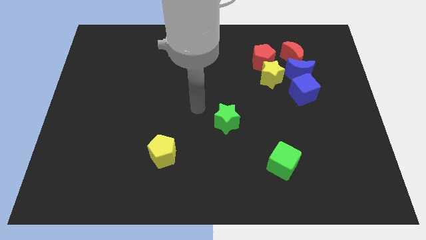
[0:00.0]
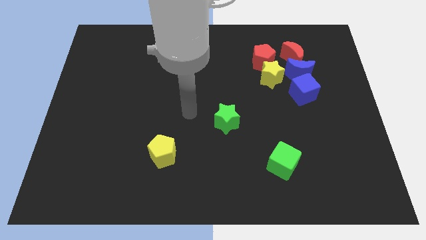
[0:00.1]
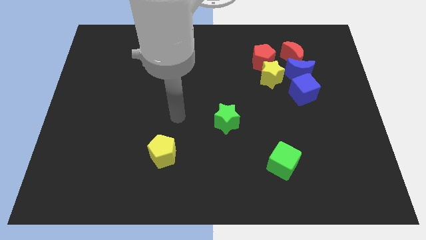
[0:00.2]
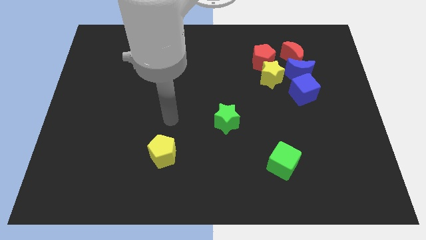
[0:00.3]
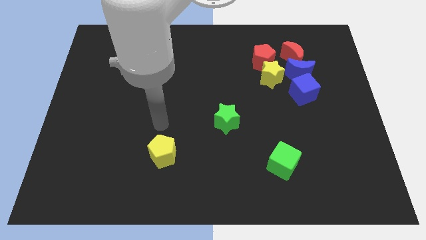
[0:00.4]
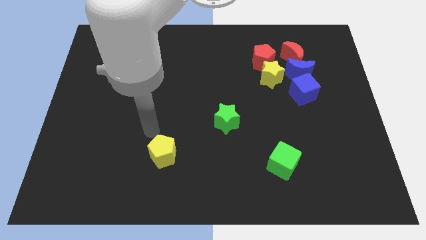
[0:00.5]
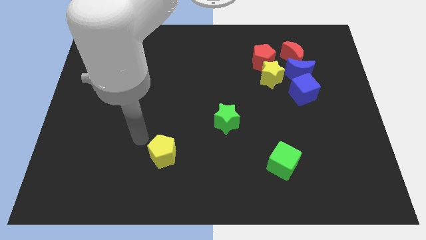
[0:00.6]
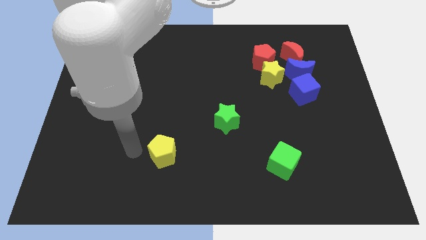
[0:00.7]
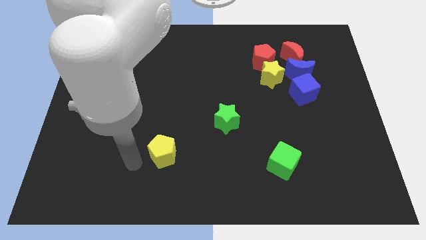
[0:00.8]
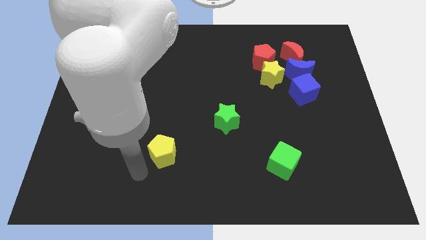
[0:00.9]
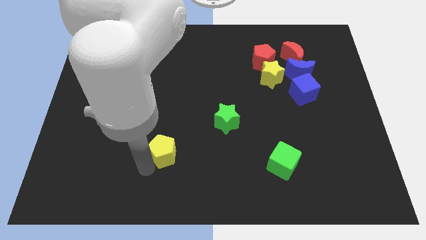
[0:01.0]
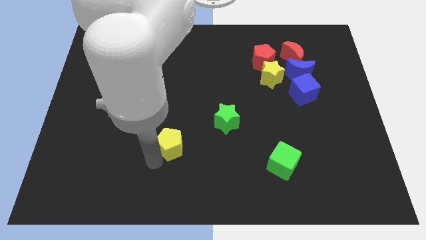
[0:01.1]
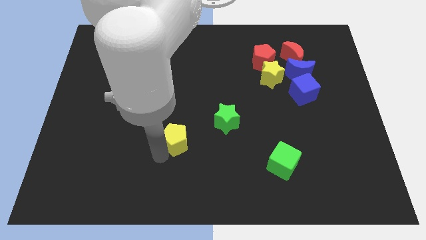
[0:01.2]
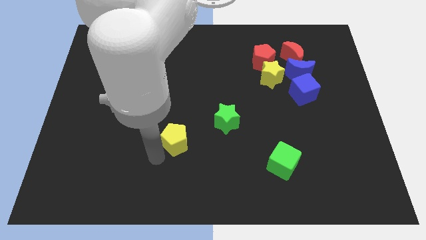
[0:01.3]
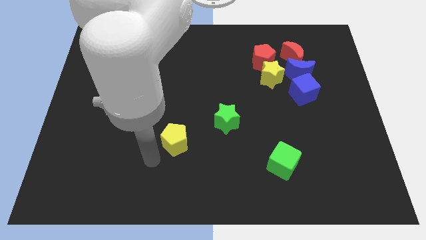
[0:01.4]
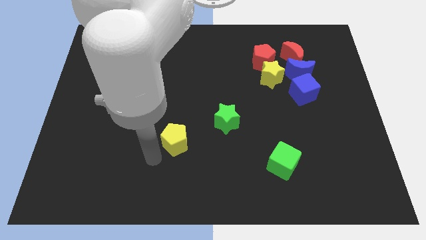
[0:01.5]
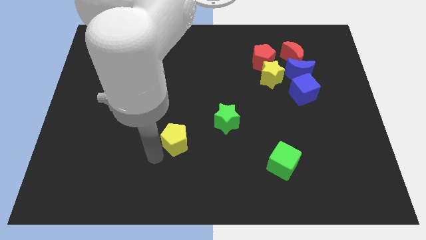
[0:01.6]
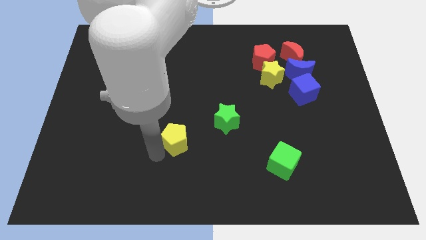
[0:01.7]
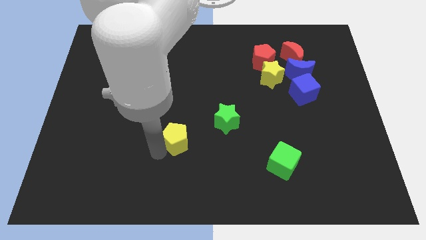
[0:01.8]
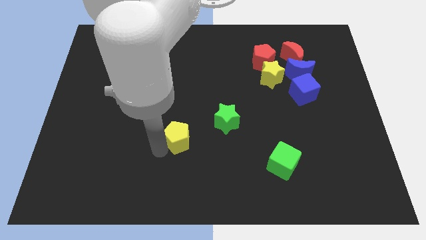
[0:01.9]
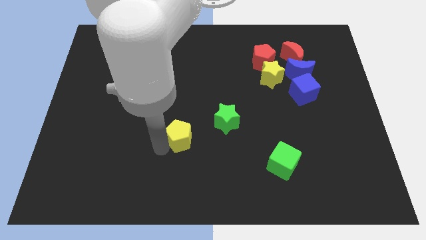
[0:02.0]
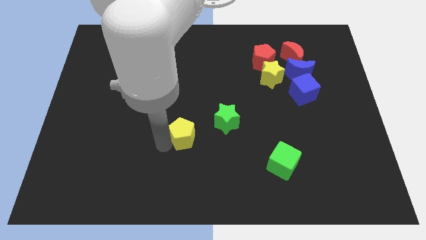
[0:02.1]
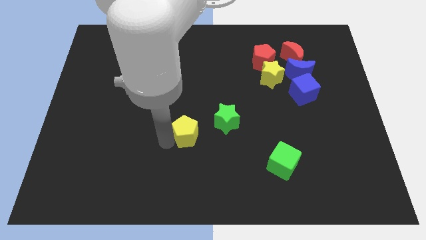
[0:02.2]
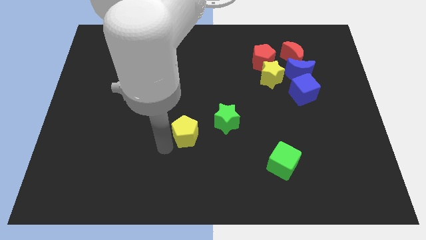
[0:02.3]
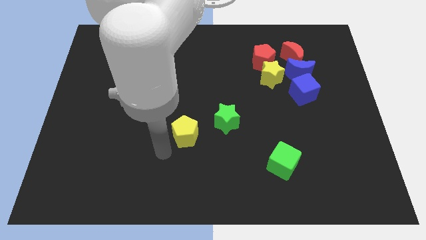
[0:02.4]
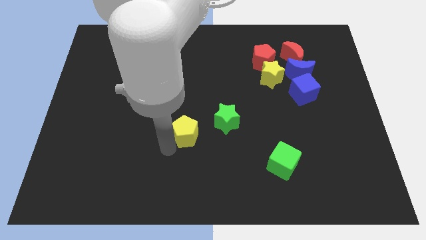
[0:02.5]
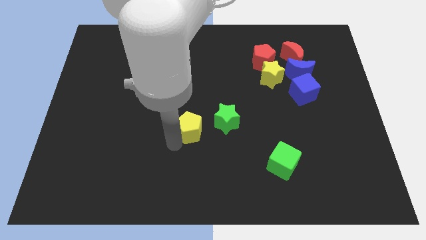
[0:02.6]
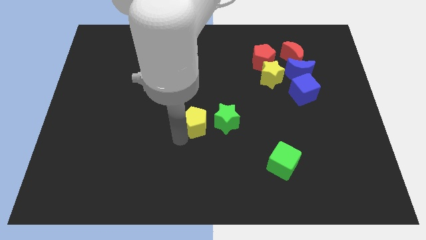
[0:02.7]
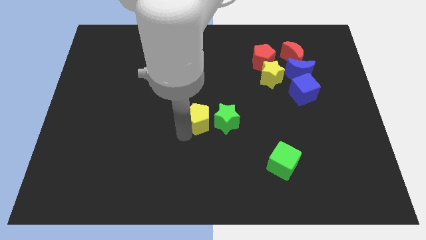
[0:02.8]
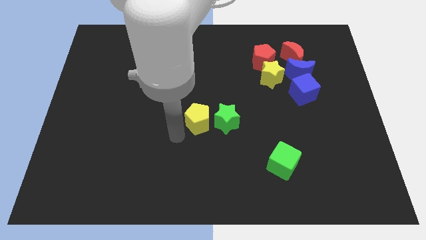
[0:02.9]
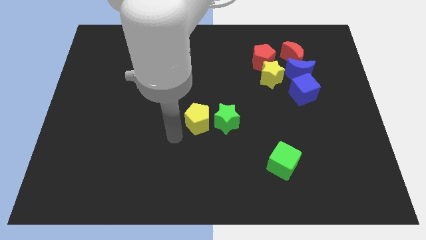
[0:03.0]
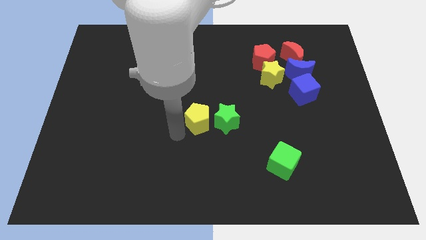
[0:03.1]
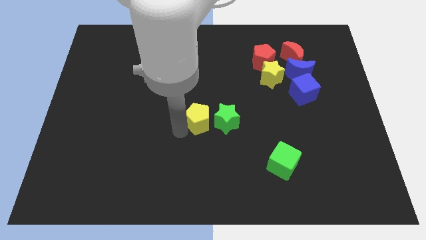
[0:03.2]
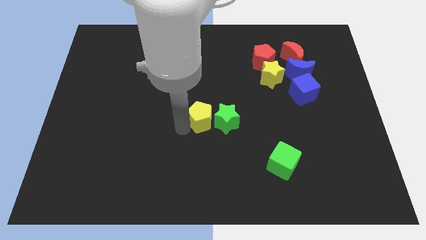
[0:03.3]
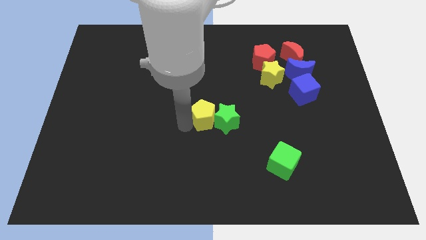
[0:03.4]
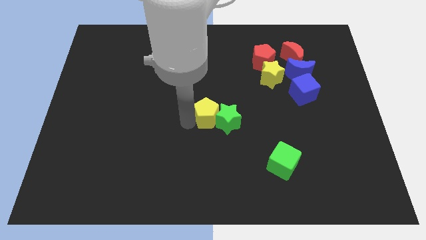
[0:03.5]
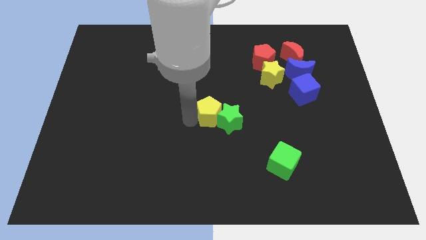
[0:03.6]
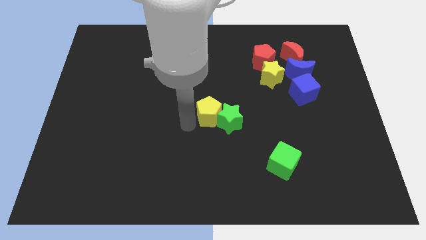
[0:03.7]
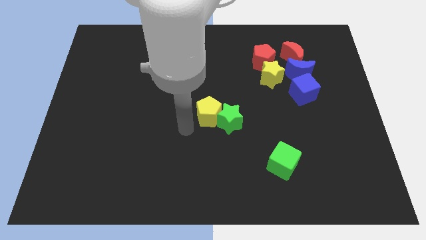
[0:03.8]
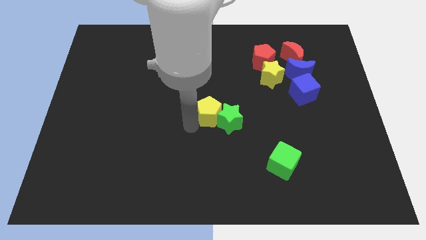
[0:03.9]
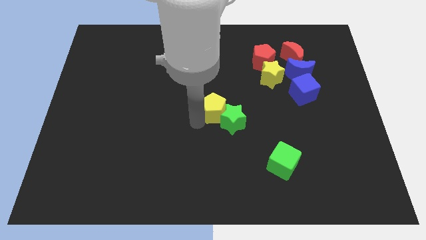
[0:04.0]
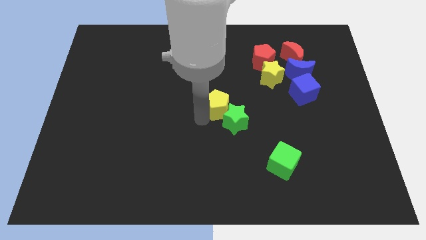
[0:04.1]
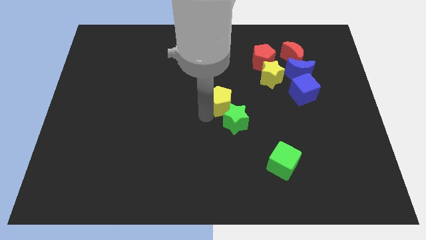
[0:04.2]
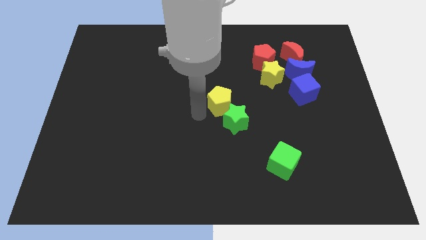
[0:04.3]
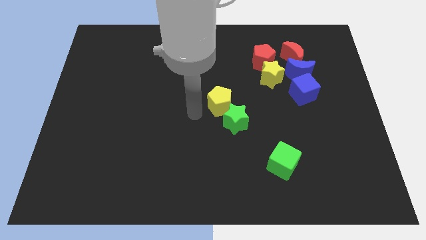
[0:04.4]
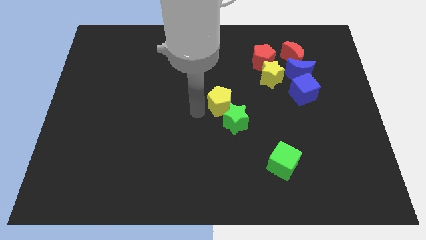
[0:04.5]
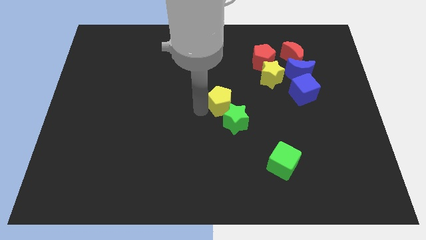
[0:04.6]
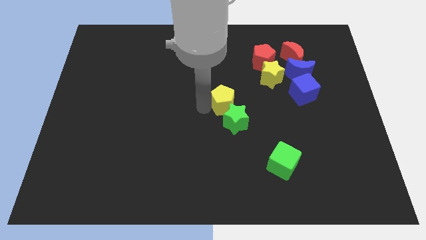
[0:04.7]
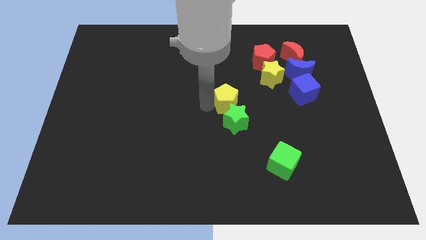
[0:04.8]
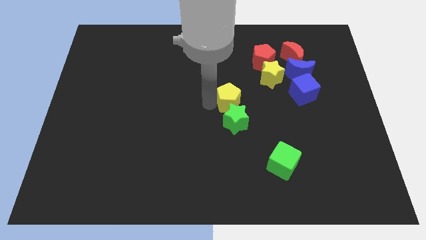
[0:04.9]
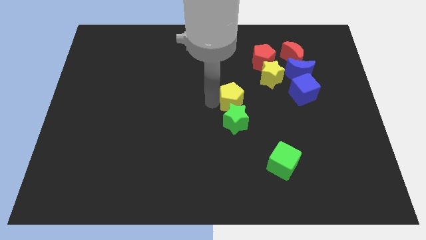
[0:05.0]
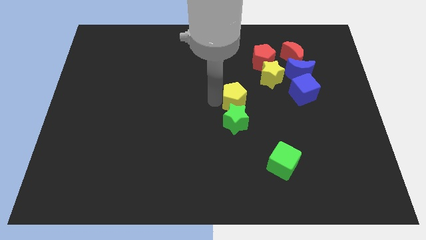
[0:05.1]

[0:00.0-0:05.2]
push the yellow pentagon diagonally down and to the left of the yellow star

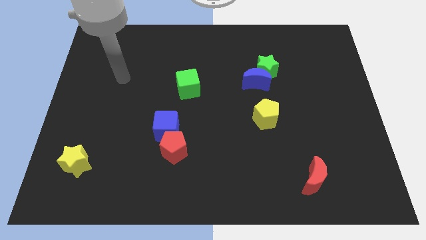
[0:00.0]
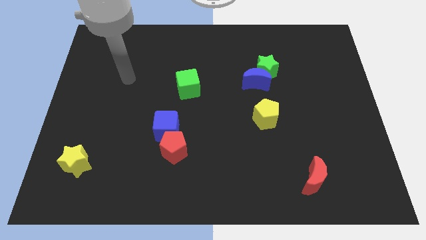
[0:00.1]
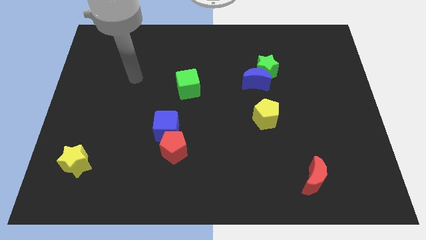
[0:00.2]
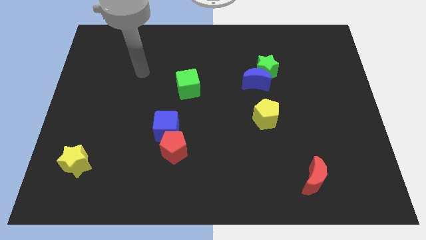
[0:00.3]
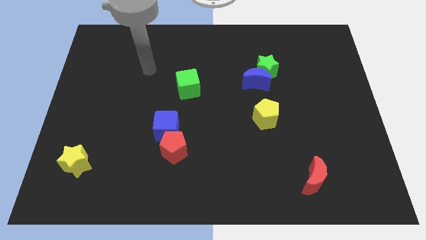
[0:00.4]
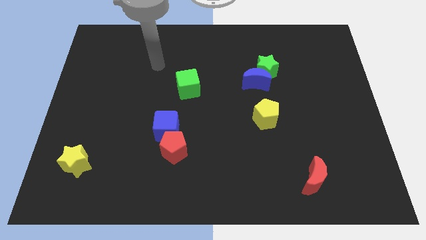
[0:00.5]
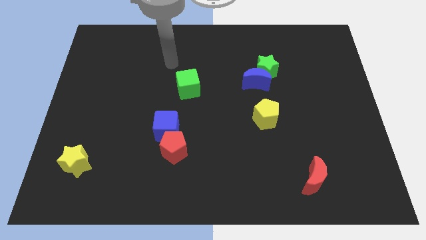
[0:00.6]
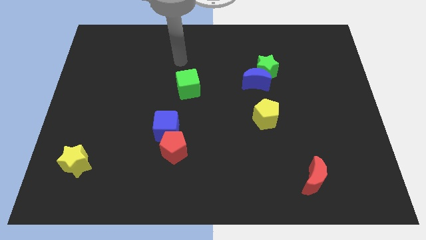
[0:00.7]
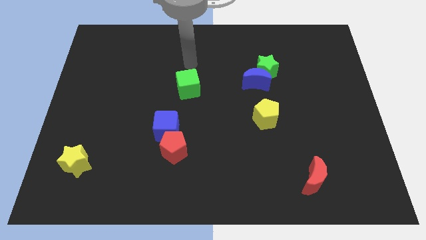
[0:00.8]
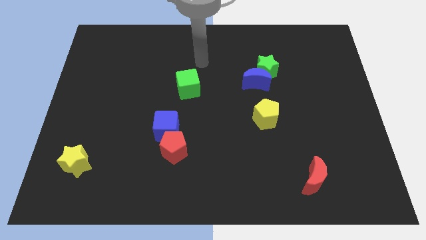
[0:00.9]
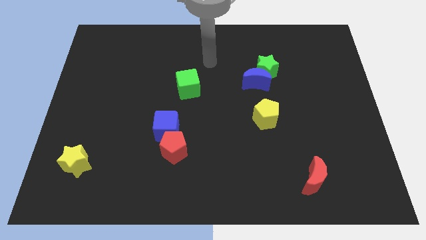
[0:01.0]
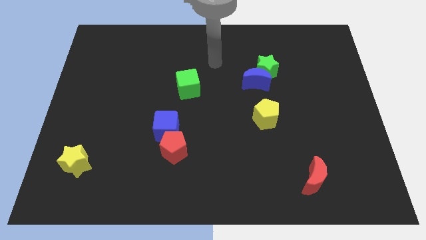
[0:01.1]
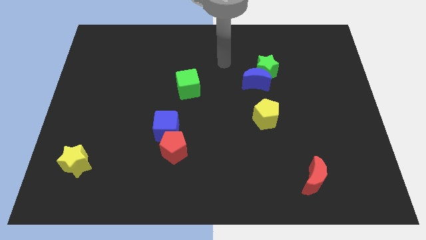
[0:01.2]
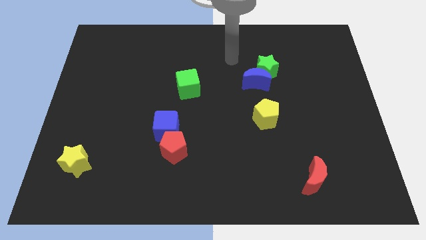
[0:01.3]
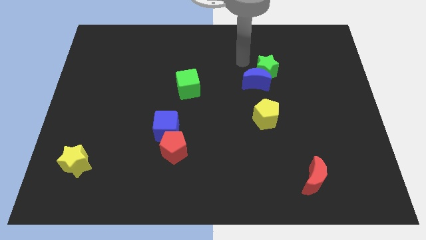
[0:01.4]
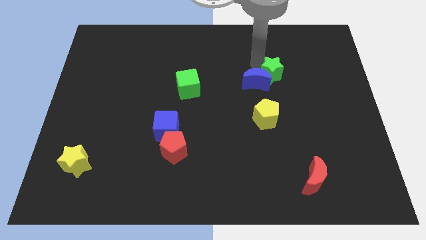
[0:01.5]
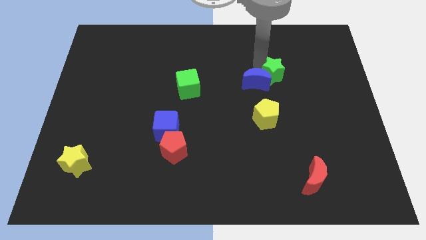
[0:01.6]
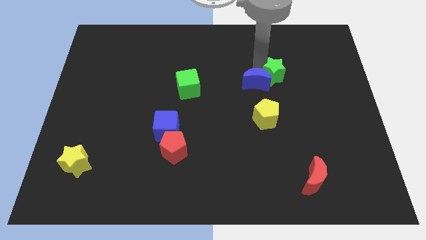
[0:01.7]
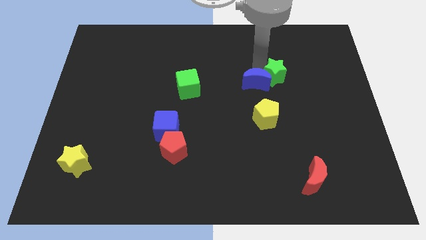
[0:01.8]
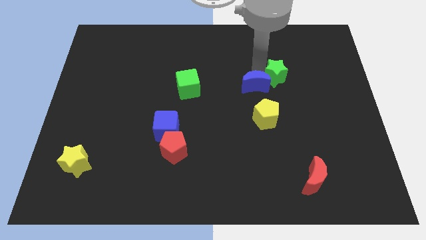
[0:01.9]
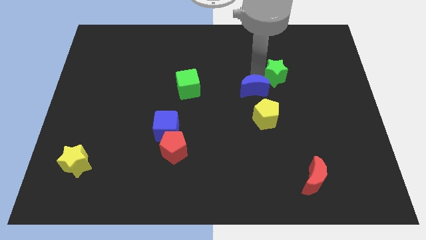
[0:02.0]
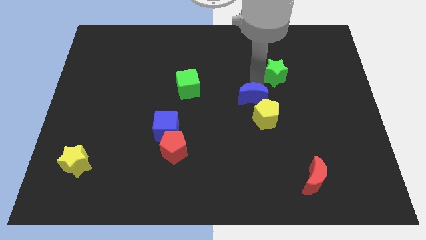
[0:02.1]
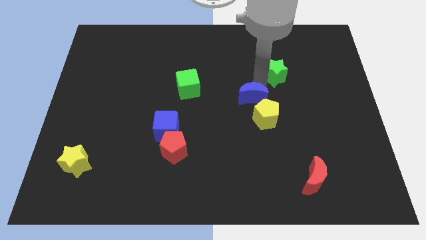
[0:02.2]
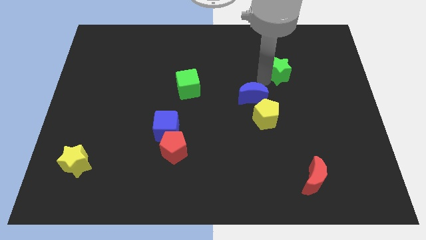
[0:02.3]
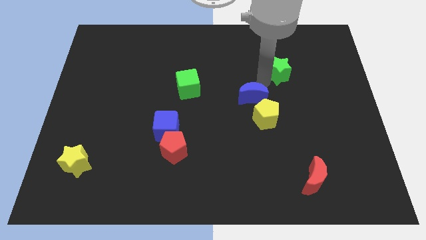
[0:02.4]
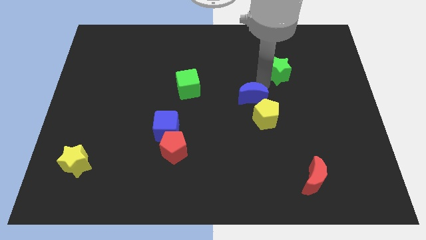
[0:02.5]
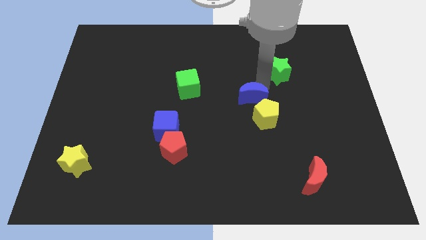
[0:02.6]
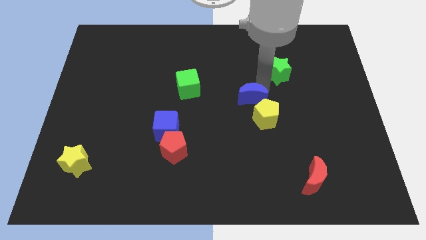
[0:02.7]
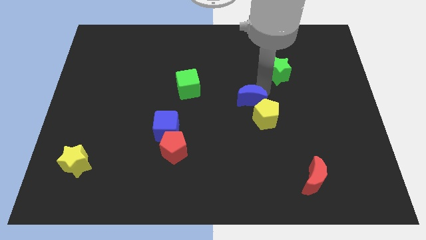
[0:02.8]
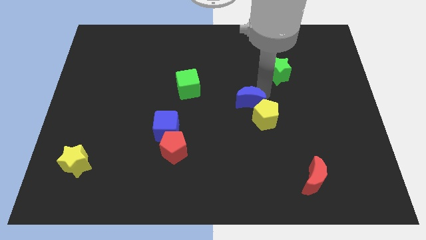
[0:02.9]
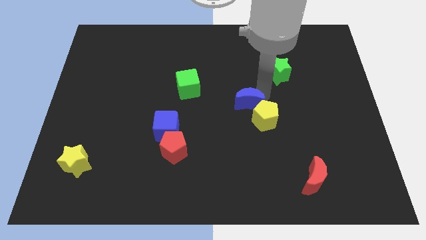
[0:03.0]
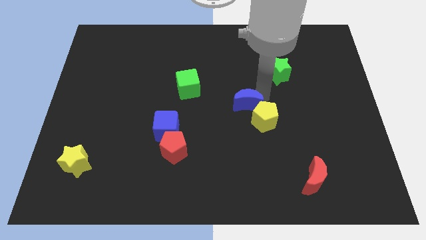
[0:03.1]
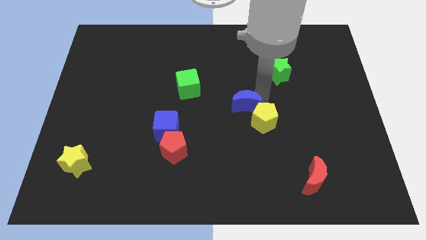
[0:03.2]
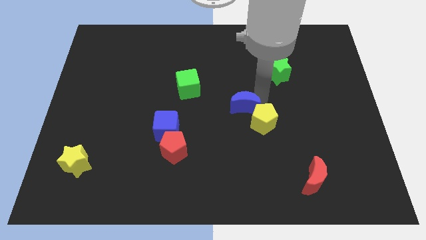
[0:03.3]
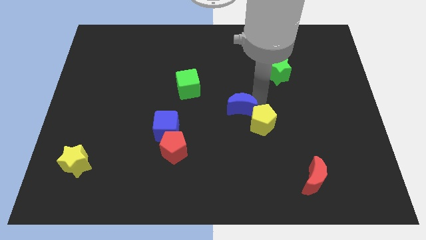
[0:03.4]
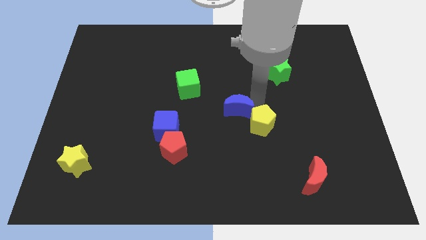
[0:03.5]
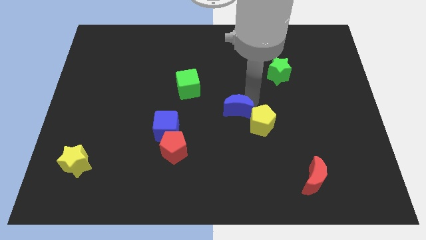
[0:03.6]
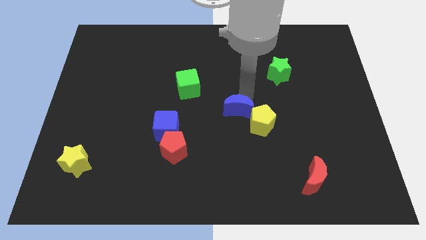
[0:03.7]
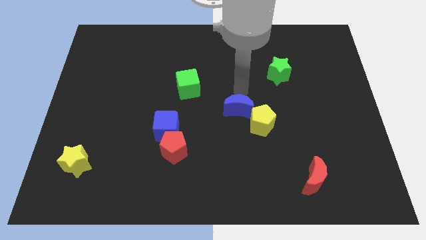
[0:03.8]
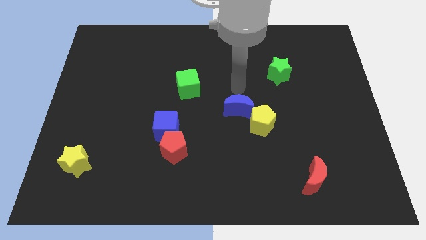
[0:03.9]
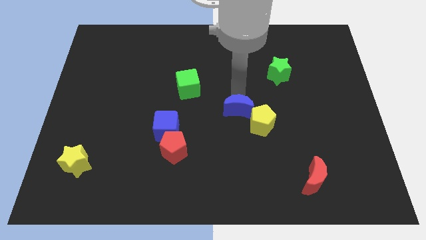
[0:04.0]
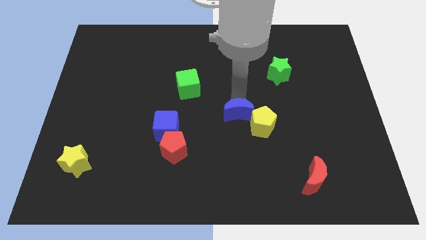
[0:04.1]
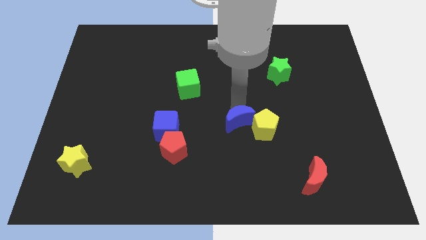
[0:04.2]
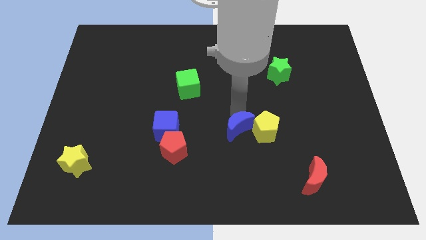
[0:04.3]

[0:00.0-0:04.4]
push the blue moon diagonally down and to the left of the yellow pentagon
